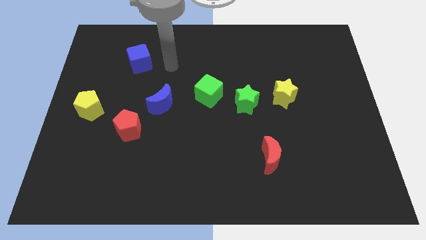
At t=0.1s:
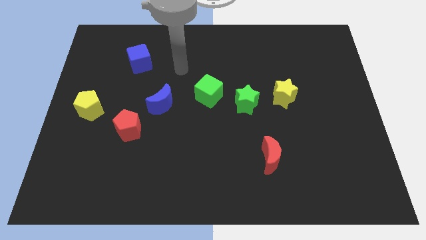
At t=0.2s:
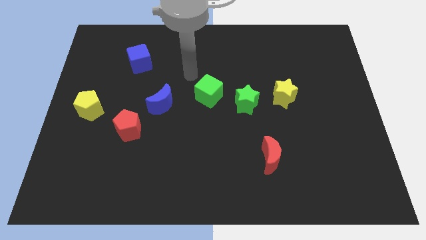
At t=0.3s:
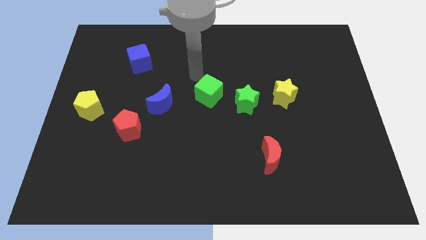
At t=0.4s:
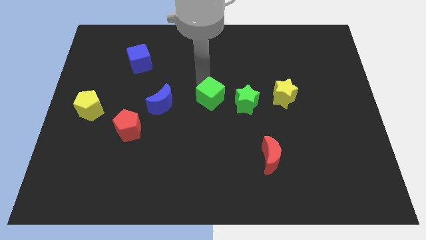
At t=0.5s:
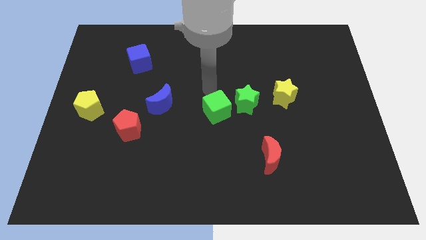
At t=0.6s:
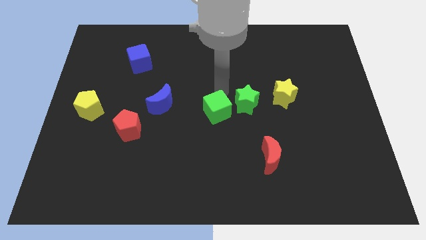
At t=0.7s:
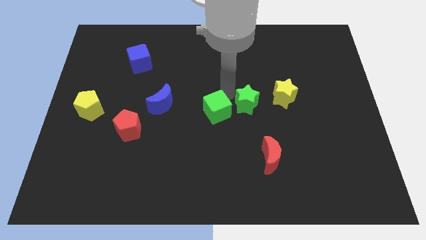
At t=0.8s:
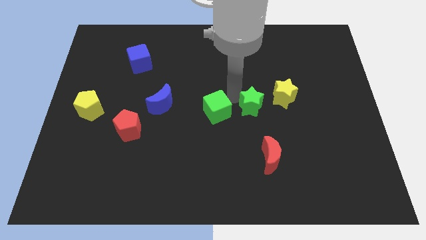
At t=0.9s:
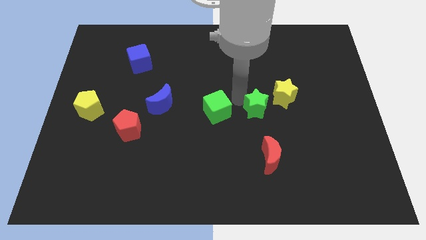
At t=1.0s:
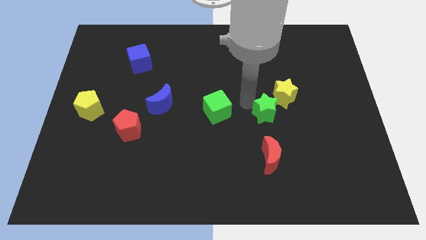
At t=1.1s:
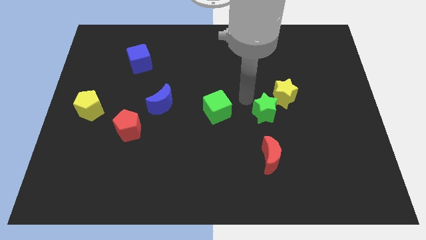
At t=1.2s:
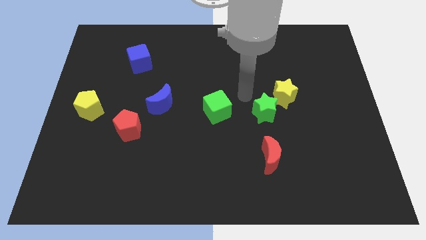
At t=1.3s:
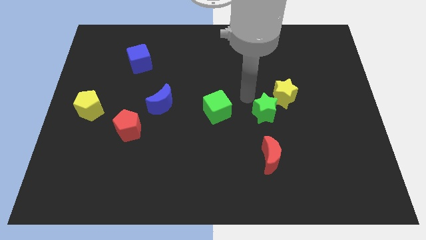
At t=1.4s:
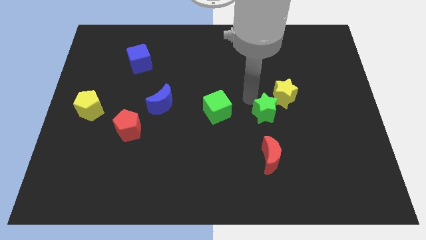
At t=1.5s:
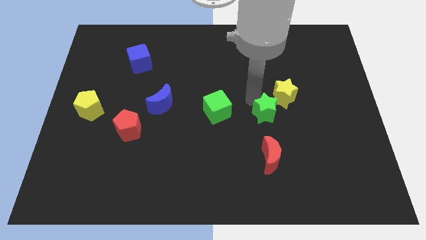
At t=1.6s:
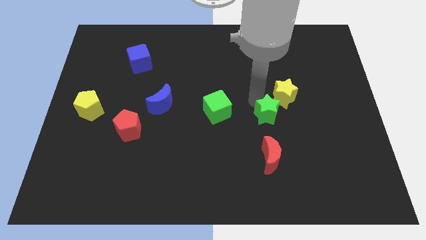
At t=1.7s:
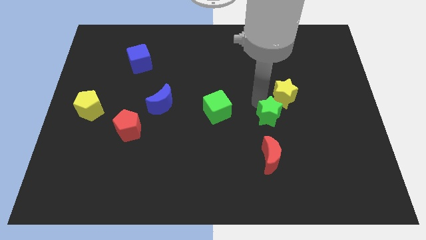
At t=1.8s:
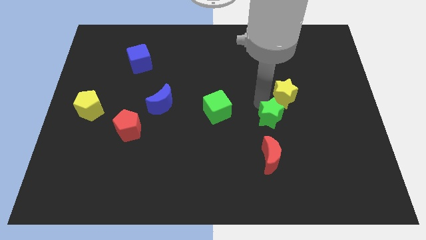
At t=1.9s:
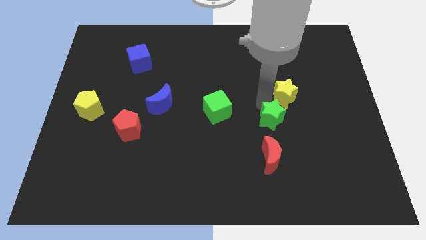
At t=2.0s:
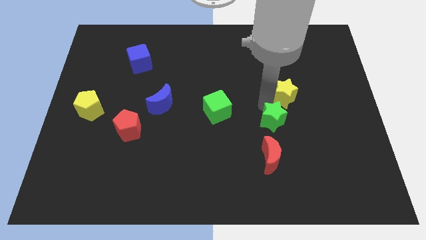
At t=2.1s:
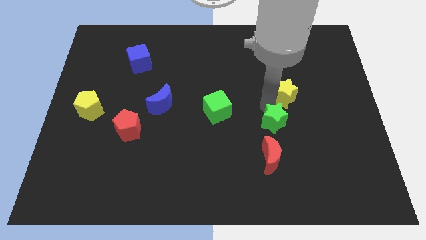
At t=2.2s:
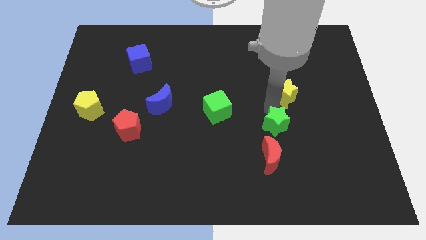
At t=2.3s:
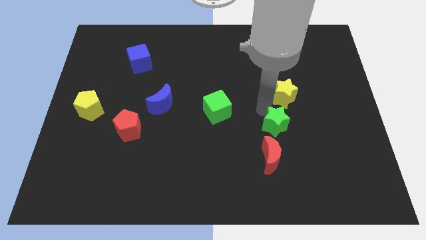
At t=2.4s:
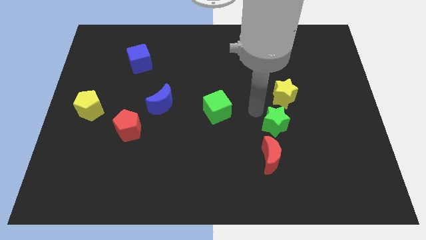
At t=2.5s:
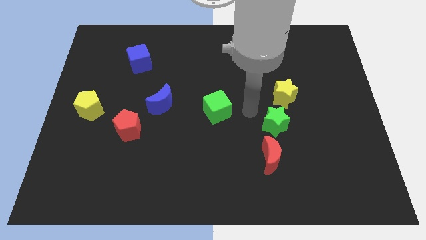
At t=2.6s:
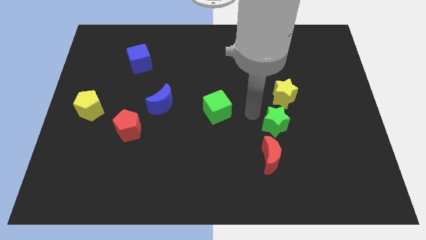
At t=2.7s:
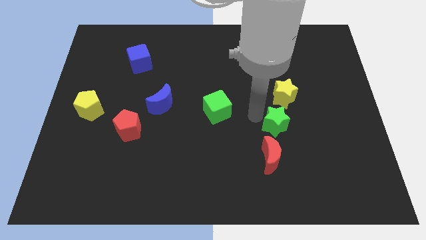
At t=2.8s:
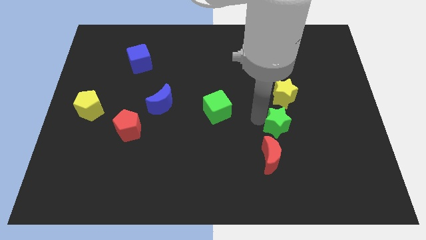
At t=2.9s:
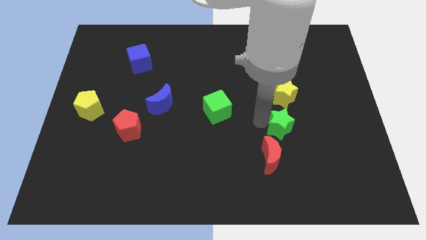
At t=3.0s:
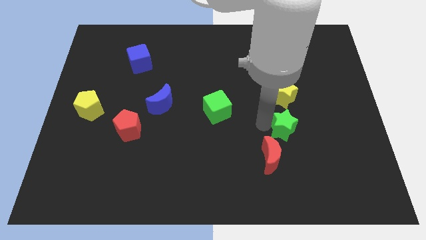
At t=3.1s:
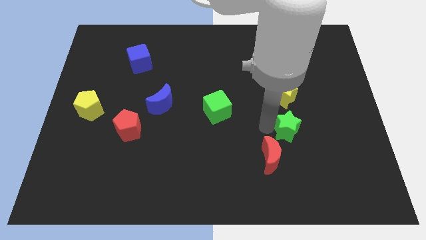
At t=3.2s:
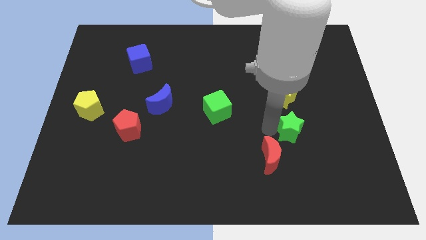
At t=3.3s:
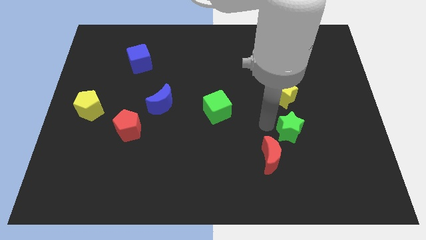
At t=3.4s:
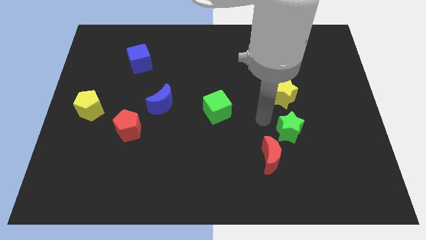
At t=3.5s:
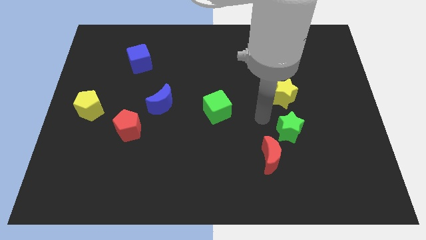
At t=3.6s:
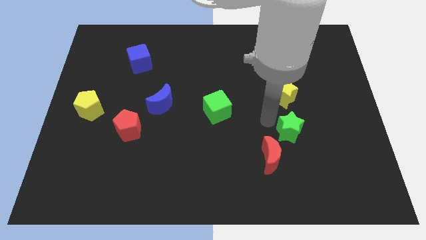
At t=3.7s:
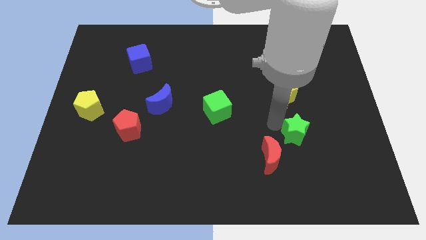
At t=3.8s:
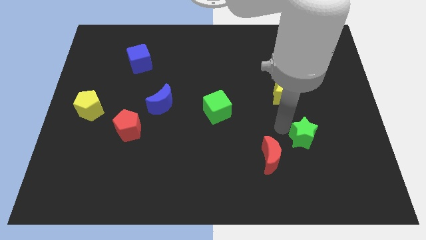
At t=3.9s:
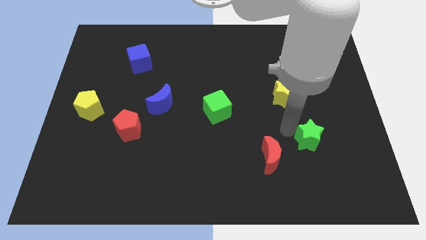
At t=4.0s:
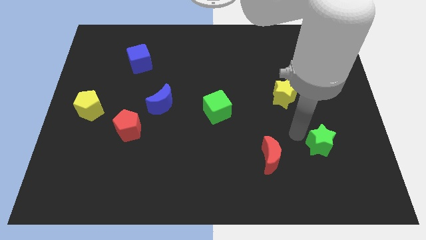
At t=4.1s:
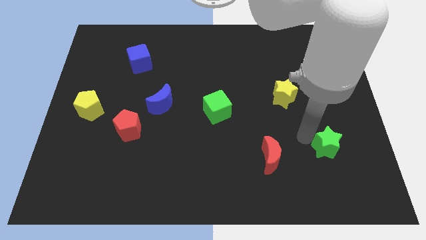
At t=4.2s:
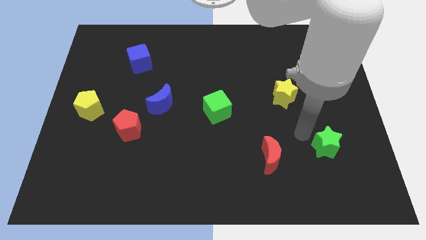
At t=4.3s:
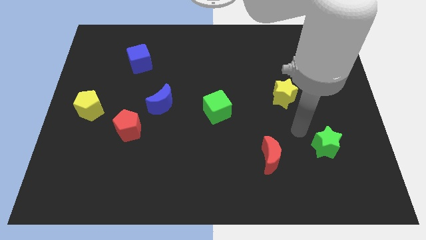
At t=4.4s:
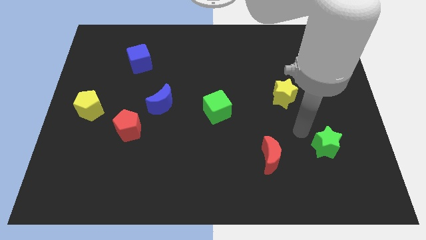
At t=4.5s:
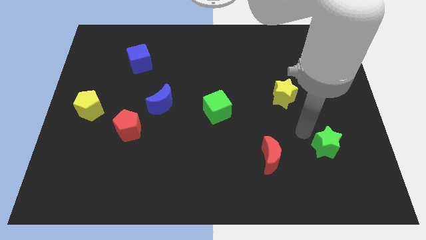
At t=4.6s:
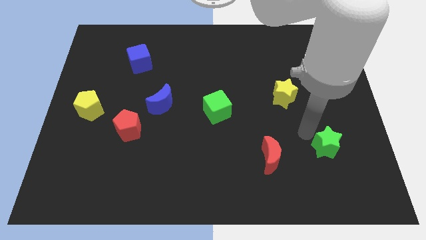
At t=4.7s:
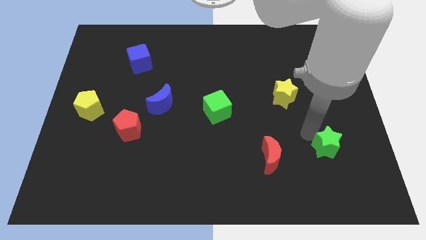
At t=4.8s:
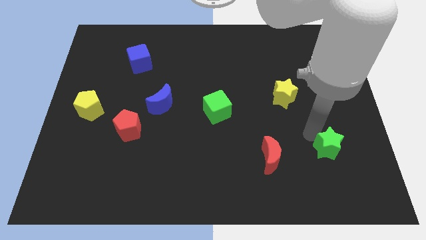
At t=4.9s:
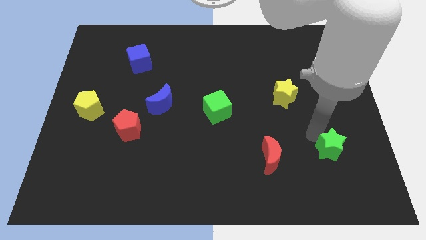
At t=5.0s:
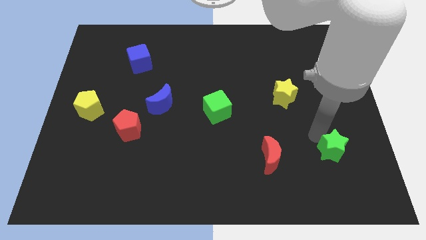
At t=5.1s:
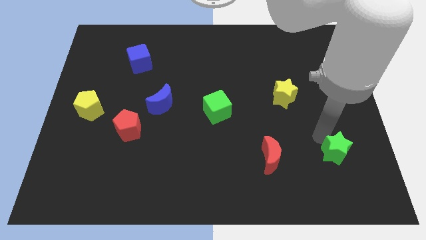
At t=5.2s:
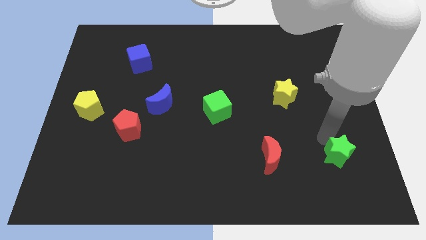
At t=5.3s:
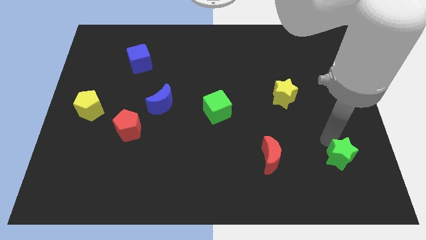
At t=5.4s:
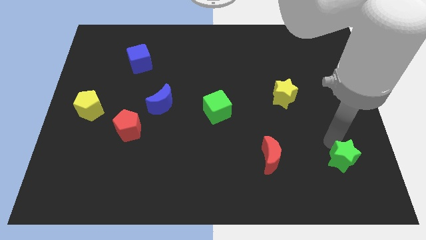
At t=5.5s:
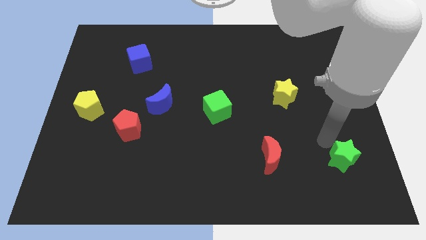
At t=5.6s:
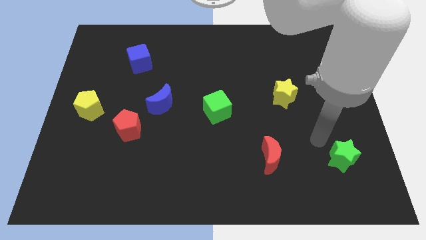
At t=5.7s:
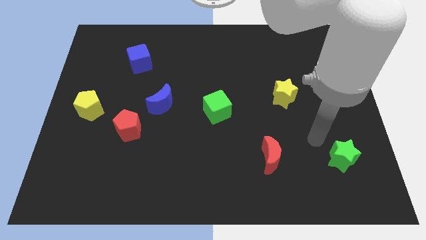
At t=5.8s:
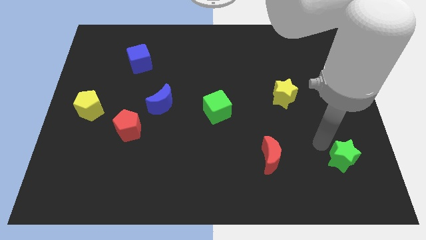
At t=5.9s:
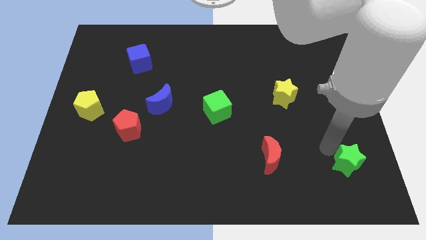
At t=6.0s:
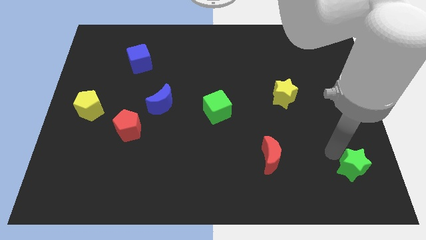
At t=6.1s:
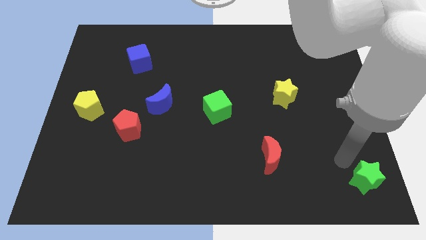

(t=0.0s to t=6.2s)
move the green star to the bottom right corner

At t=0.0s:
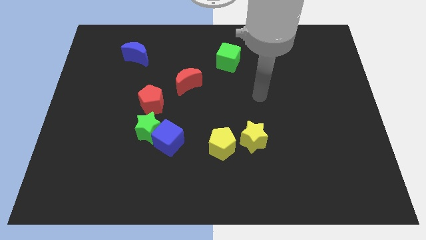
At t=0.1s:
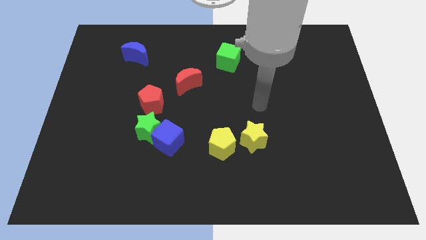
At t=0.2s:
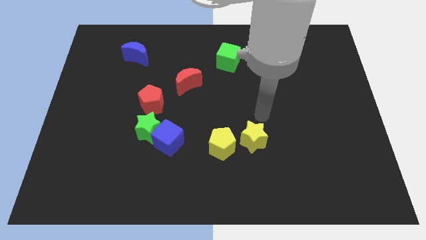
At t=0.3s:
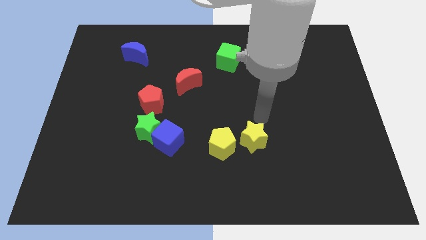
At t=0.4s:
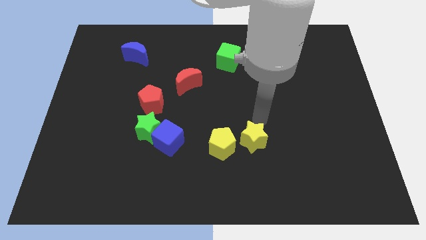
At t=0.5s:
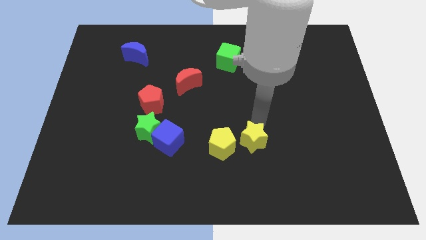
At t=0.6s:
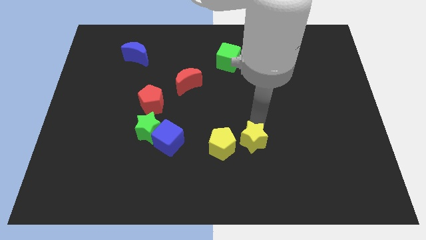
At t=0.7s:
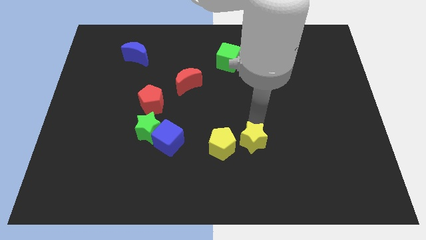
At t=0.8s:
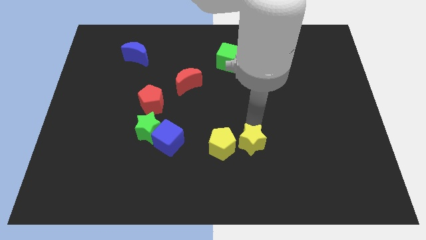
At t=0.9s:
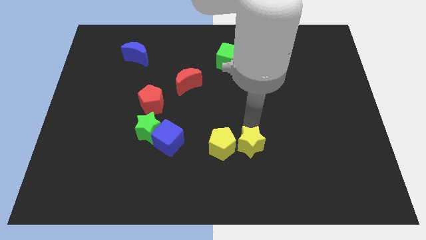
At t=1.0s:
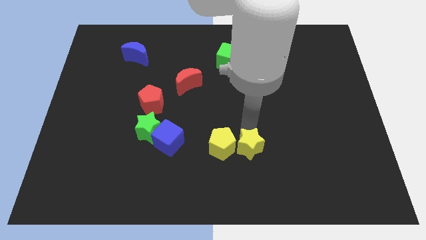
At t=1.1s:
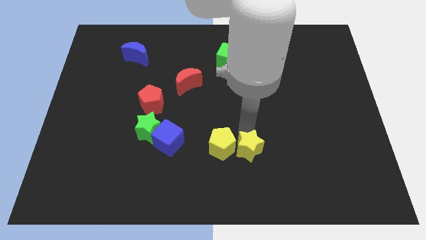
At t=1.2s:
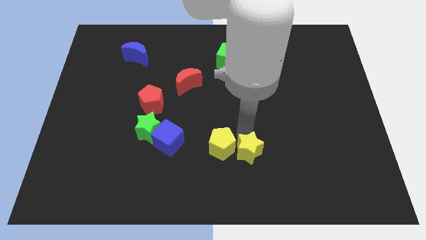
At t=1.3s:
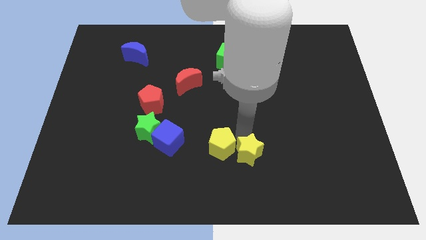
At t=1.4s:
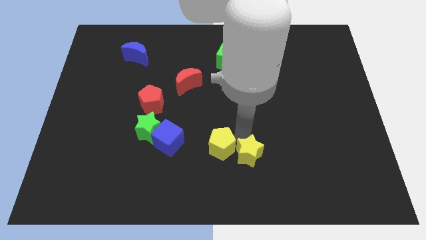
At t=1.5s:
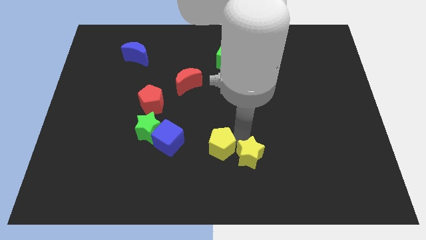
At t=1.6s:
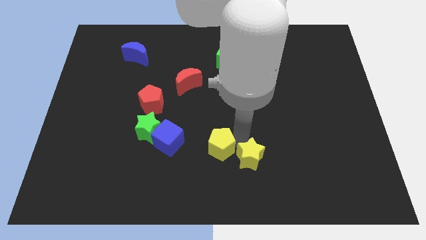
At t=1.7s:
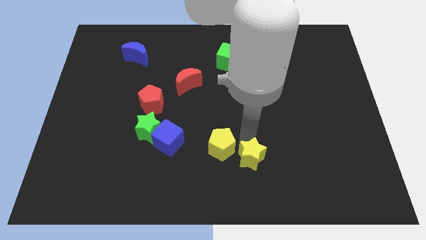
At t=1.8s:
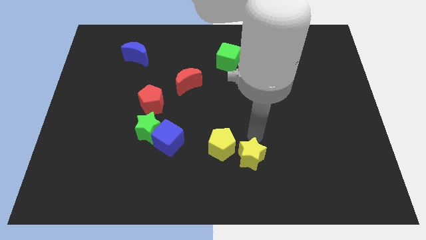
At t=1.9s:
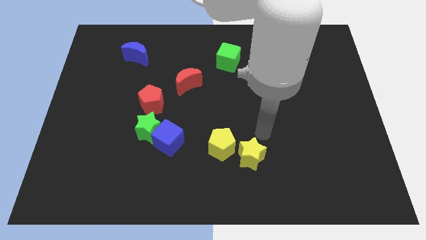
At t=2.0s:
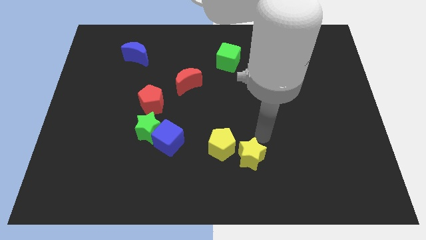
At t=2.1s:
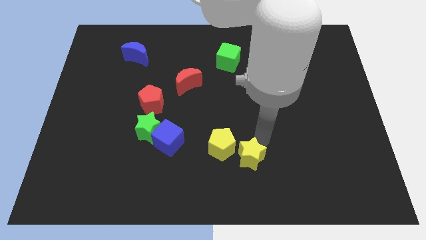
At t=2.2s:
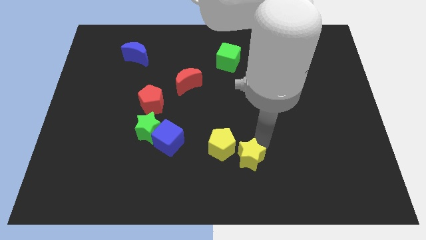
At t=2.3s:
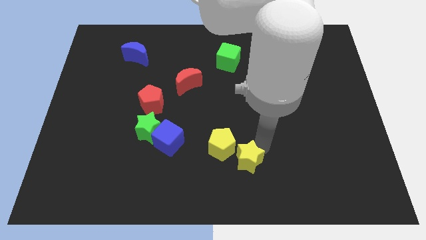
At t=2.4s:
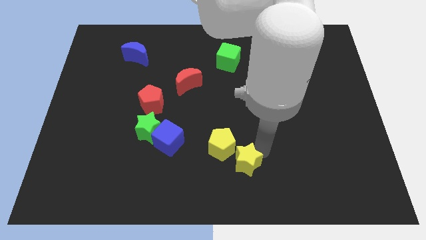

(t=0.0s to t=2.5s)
push the yellow star to the bottom side
